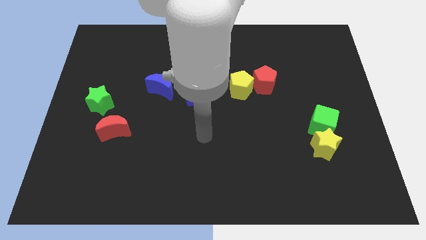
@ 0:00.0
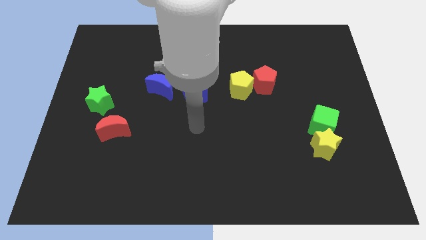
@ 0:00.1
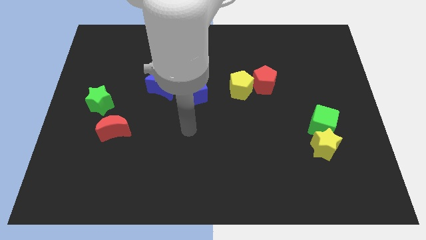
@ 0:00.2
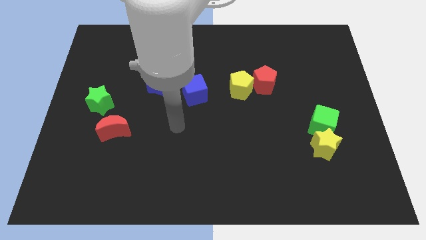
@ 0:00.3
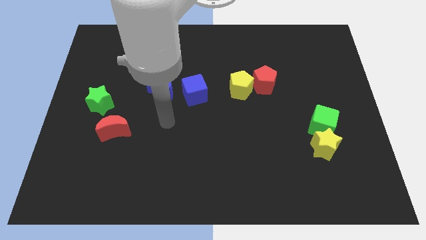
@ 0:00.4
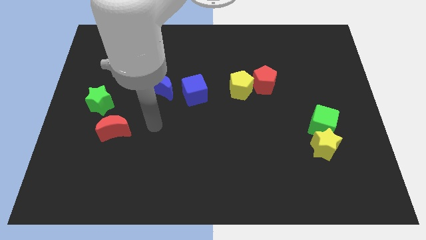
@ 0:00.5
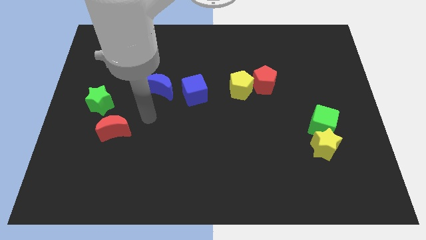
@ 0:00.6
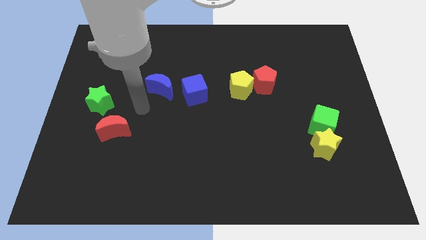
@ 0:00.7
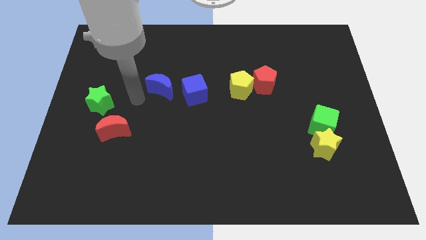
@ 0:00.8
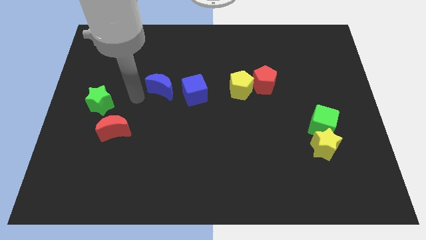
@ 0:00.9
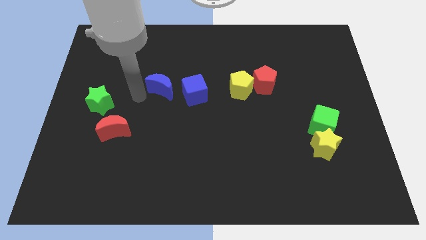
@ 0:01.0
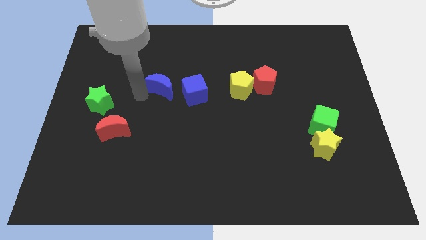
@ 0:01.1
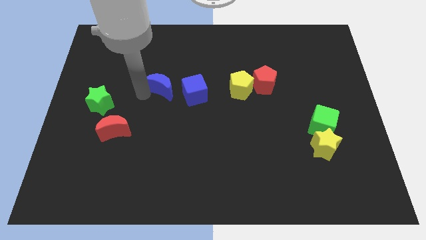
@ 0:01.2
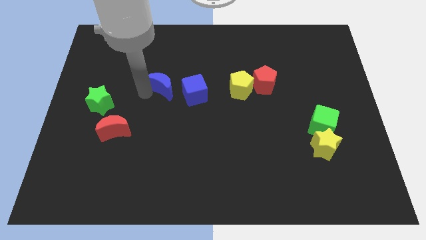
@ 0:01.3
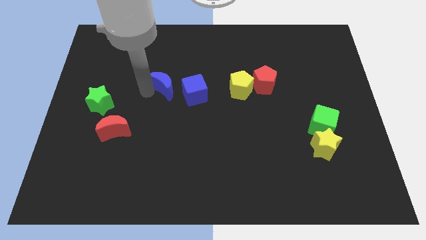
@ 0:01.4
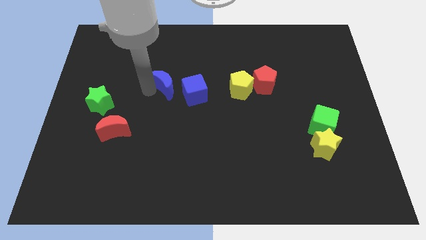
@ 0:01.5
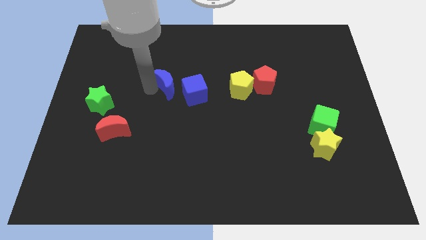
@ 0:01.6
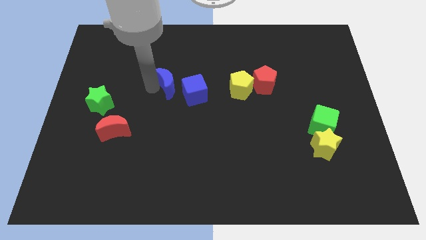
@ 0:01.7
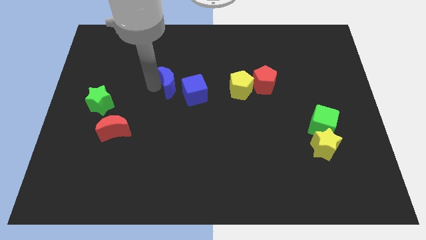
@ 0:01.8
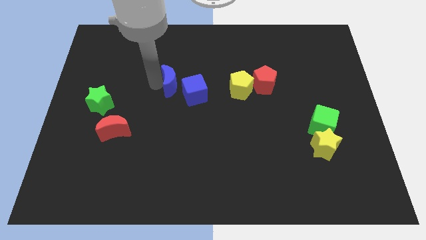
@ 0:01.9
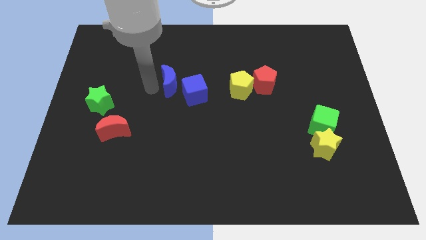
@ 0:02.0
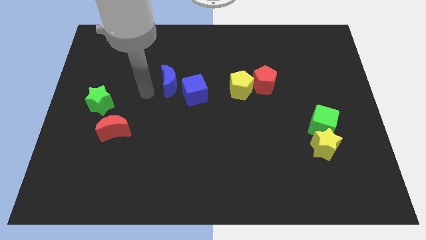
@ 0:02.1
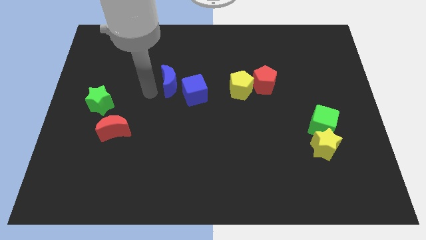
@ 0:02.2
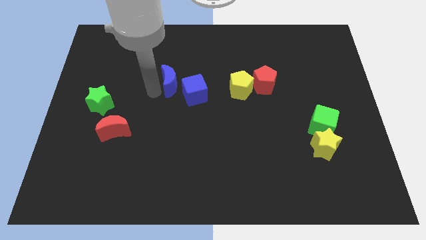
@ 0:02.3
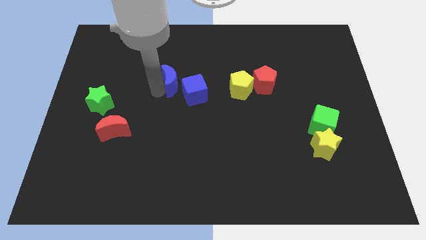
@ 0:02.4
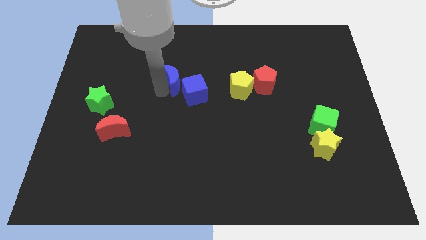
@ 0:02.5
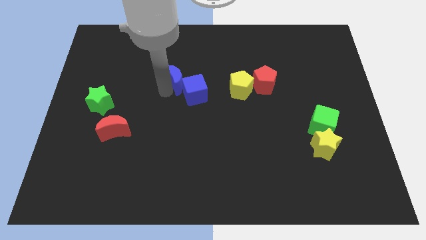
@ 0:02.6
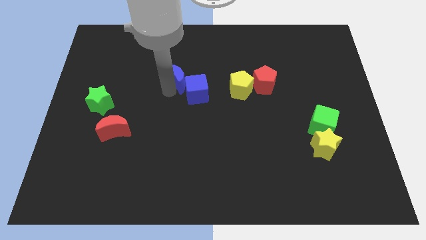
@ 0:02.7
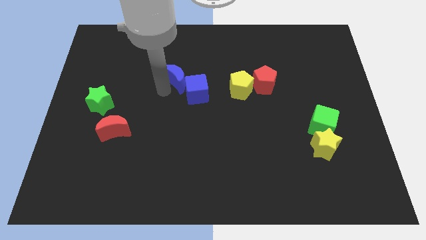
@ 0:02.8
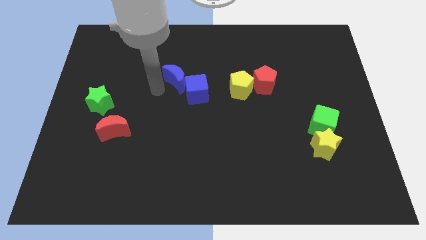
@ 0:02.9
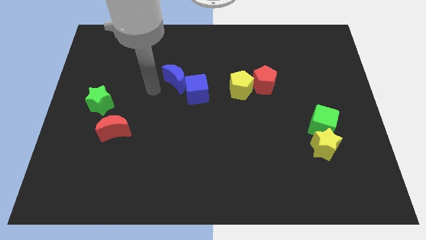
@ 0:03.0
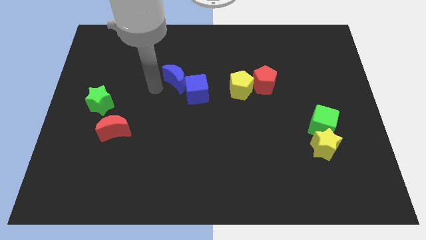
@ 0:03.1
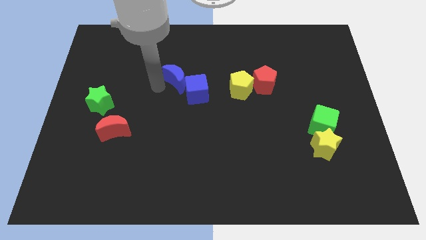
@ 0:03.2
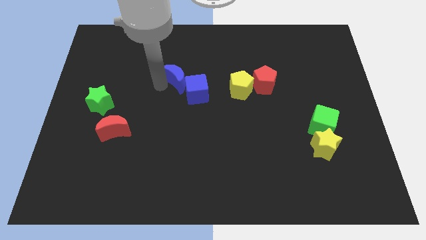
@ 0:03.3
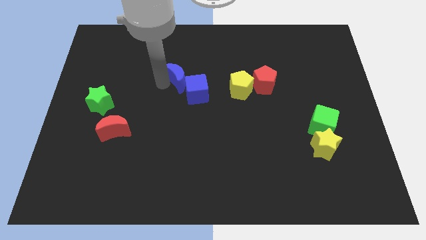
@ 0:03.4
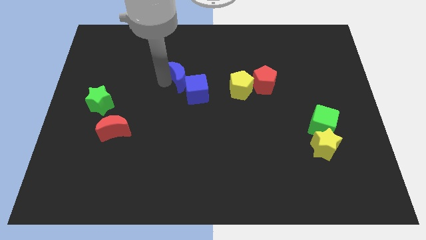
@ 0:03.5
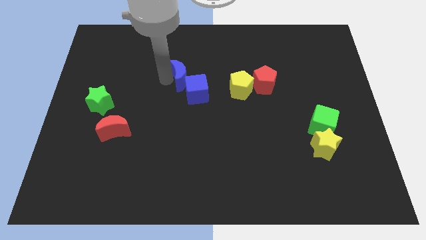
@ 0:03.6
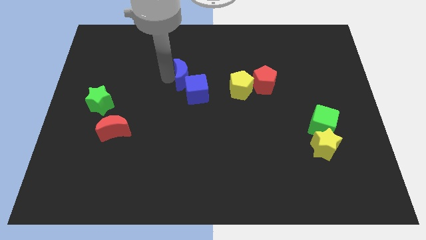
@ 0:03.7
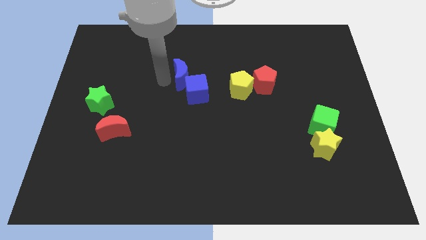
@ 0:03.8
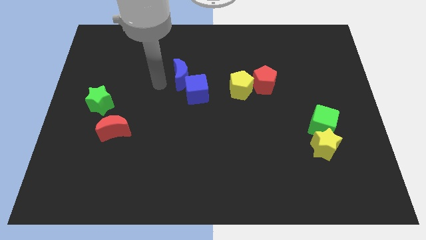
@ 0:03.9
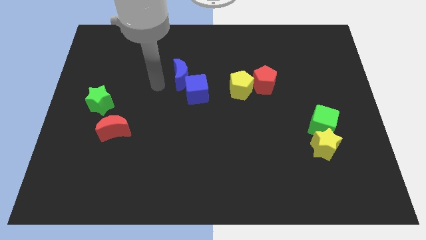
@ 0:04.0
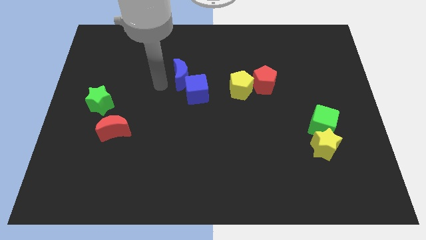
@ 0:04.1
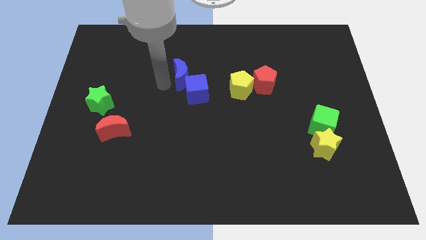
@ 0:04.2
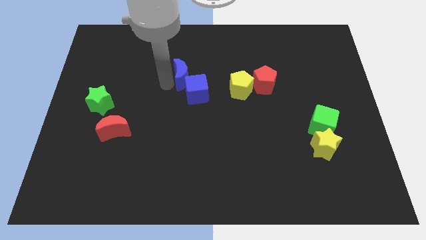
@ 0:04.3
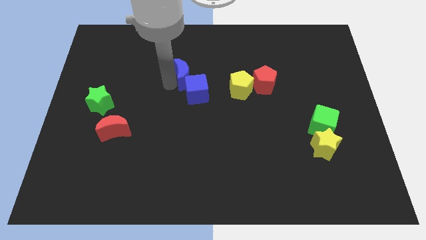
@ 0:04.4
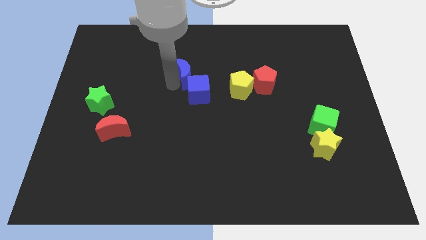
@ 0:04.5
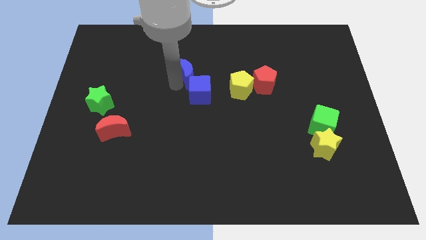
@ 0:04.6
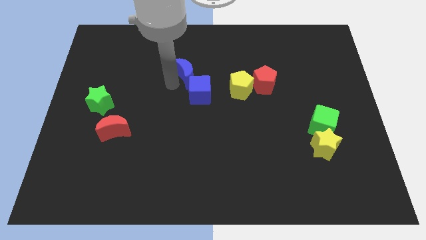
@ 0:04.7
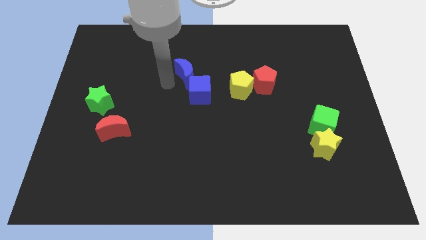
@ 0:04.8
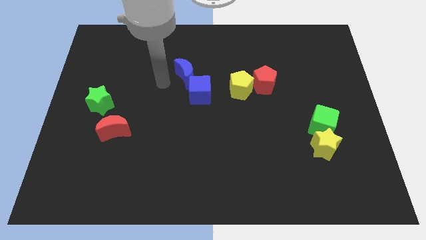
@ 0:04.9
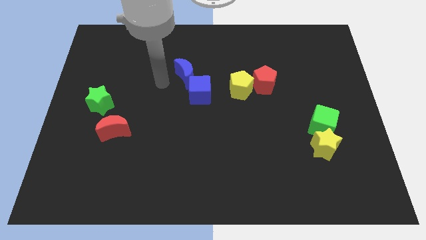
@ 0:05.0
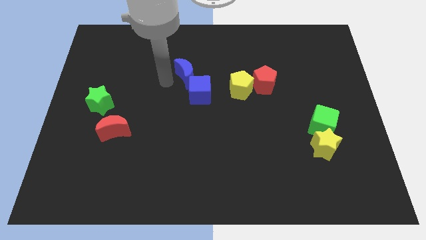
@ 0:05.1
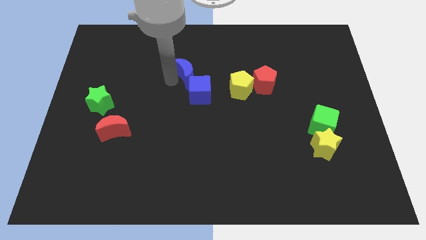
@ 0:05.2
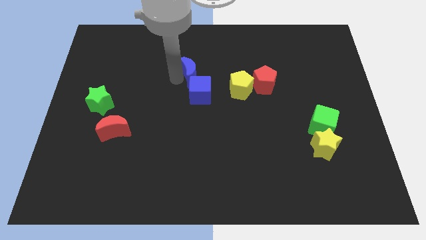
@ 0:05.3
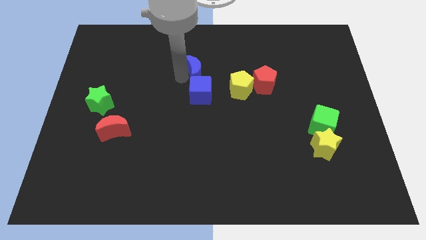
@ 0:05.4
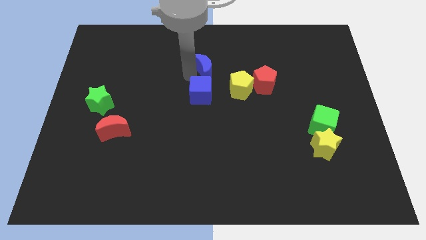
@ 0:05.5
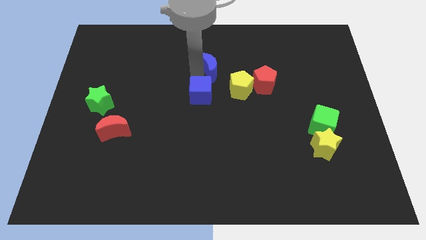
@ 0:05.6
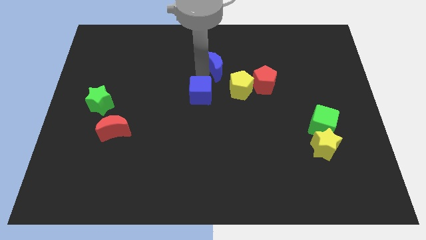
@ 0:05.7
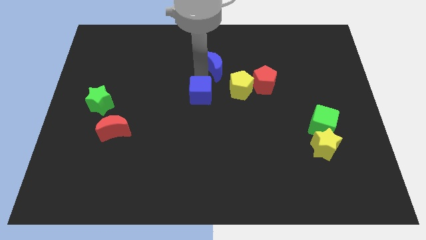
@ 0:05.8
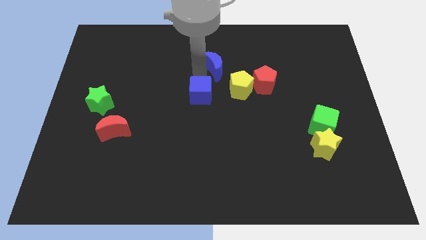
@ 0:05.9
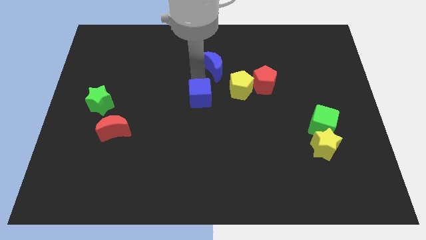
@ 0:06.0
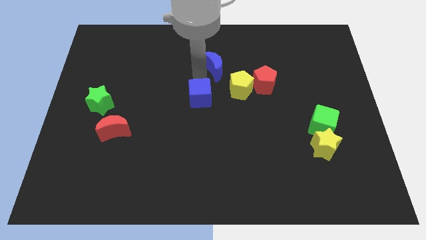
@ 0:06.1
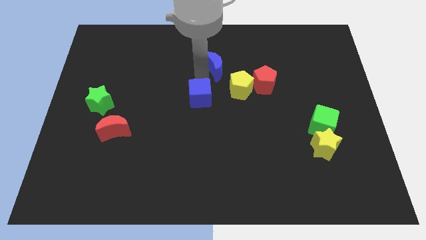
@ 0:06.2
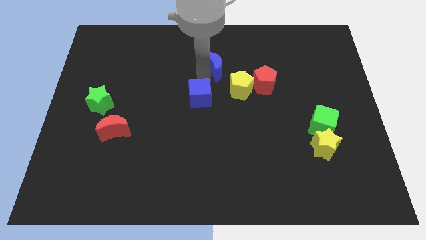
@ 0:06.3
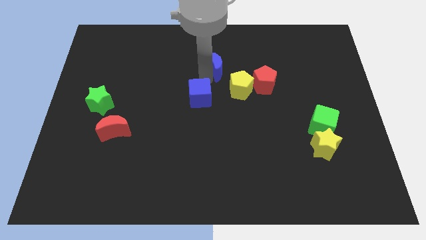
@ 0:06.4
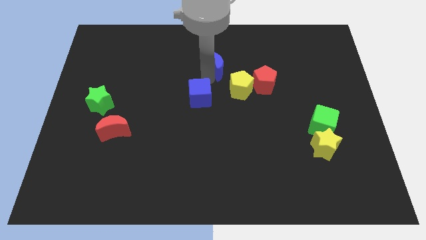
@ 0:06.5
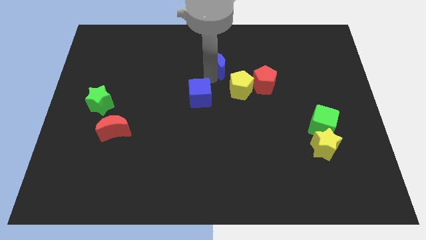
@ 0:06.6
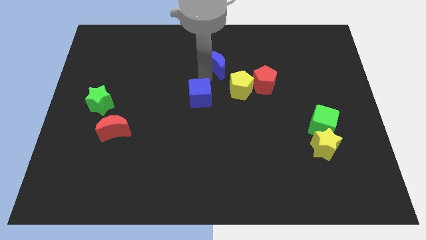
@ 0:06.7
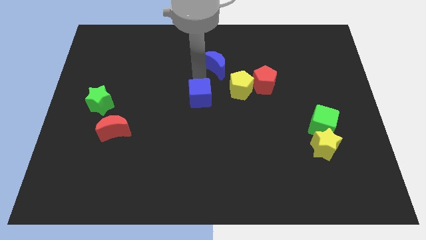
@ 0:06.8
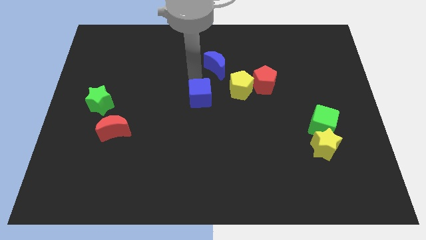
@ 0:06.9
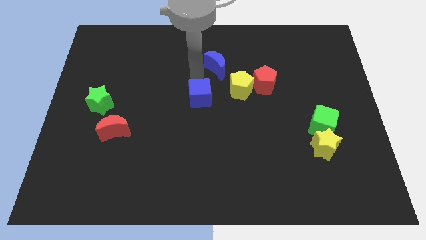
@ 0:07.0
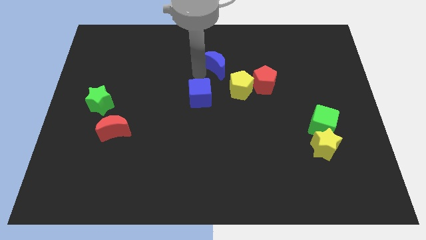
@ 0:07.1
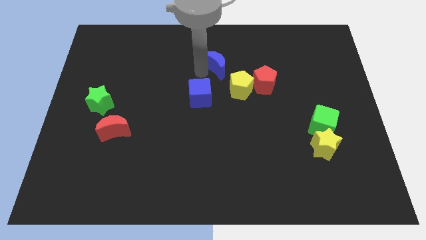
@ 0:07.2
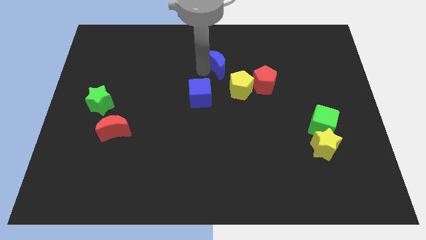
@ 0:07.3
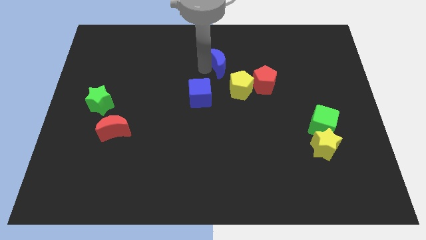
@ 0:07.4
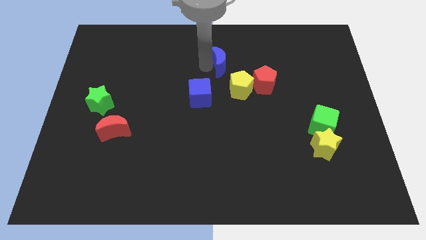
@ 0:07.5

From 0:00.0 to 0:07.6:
slide the blue moon above the yellow pentagon
